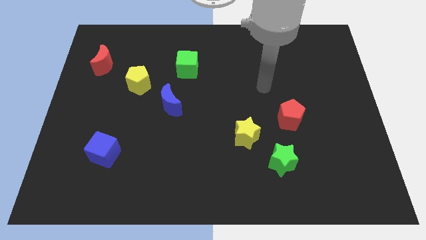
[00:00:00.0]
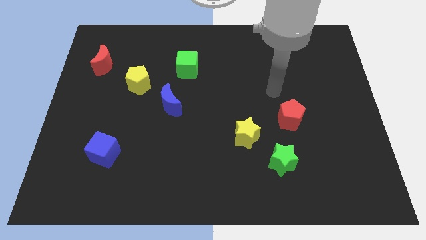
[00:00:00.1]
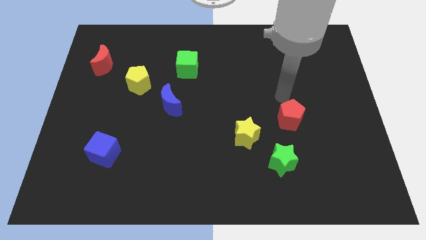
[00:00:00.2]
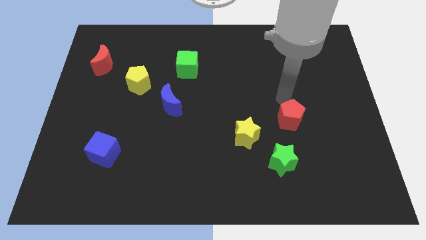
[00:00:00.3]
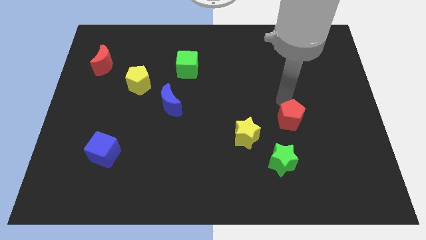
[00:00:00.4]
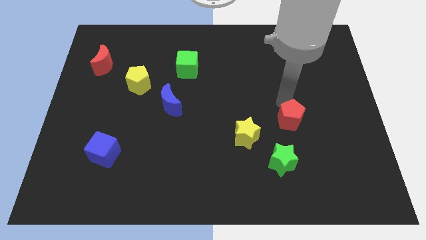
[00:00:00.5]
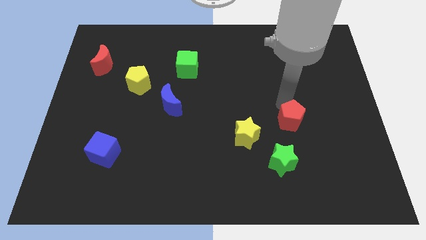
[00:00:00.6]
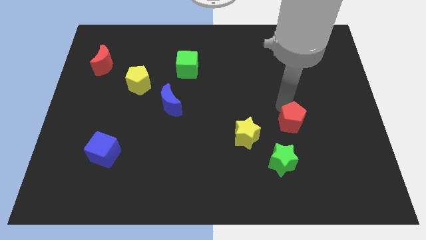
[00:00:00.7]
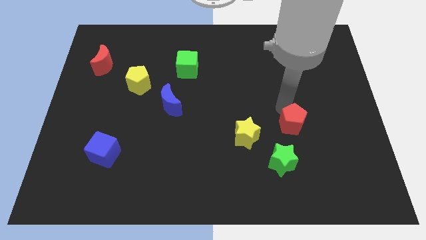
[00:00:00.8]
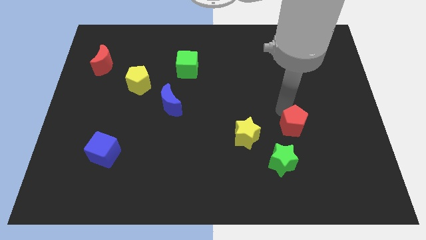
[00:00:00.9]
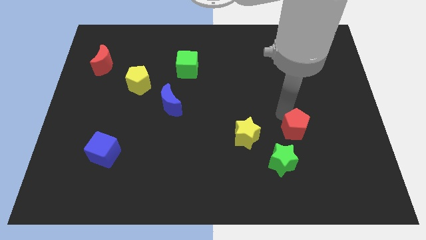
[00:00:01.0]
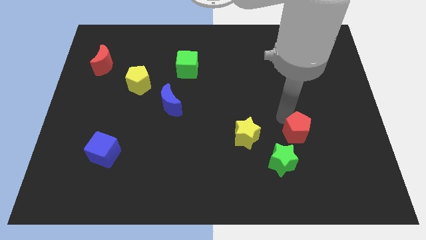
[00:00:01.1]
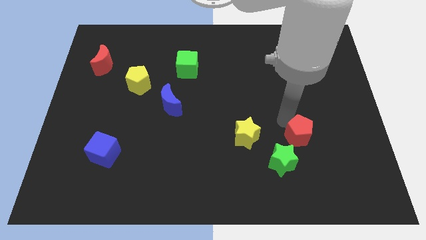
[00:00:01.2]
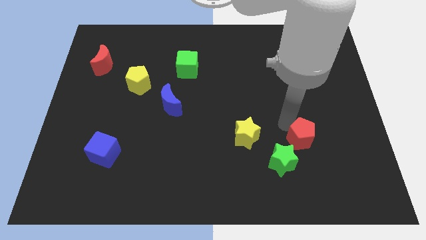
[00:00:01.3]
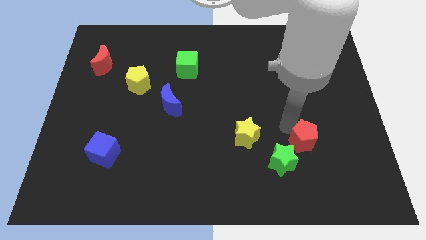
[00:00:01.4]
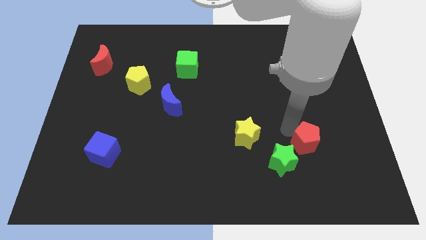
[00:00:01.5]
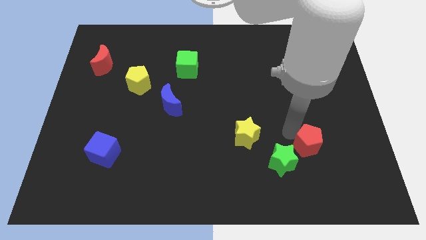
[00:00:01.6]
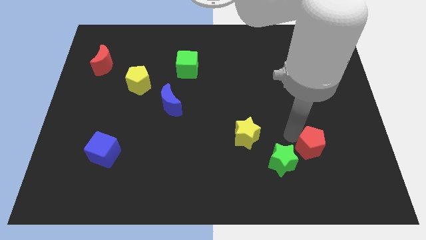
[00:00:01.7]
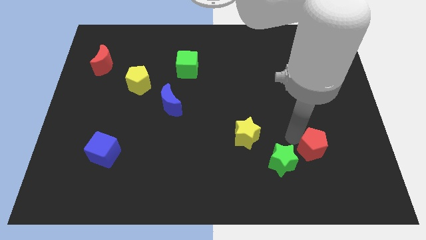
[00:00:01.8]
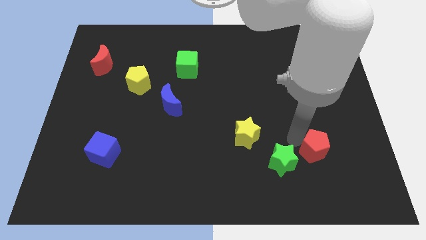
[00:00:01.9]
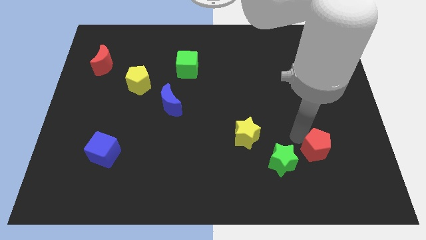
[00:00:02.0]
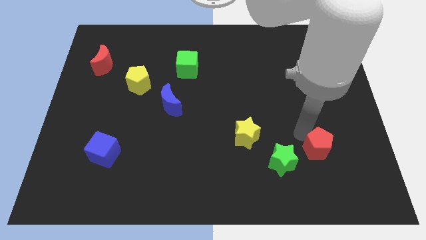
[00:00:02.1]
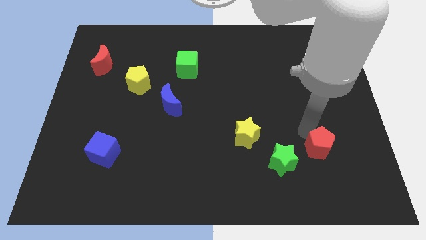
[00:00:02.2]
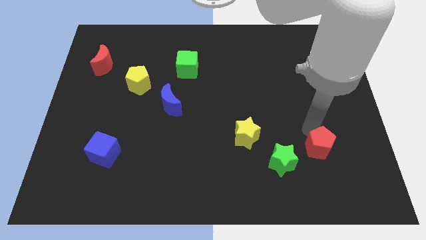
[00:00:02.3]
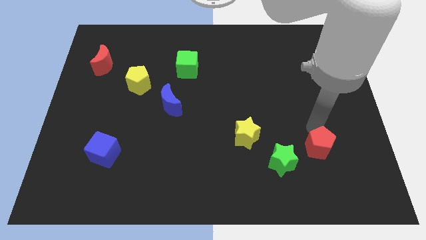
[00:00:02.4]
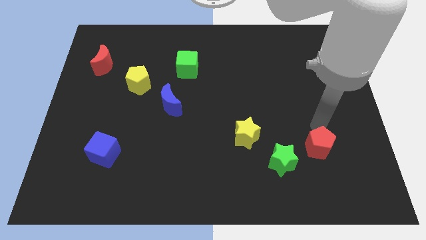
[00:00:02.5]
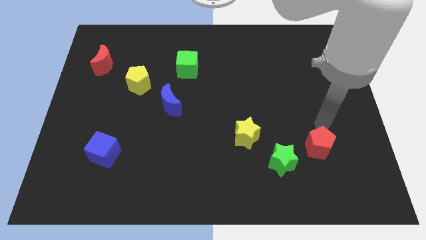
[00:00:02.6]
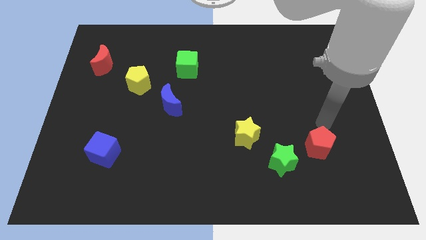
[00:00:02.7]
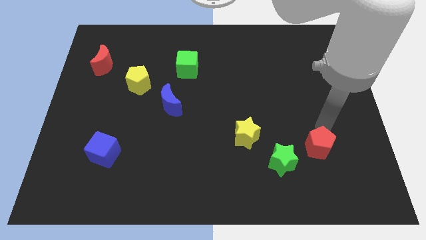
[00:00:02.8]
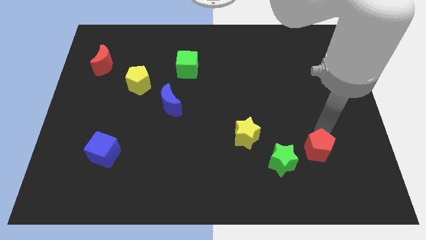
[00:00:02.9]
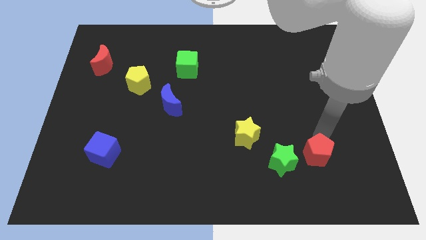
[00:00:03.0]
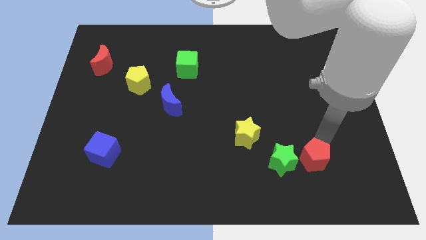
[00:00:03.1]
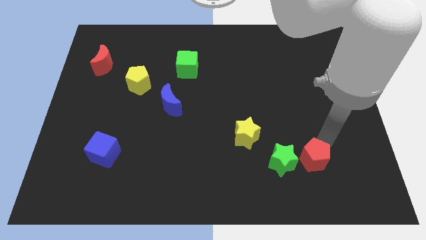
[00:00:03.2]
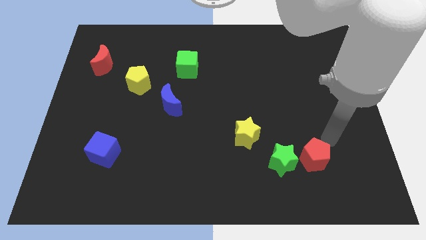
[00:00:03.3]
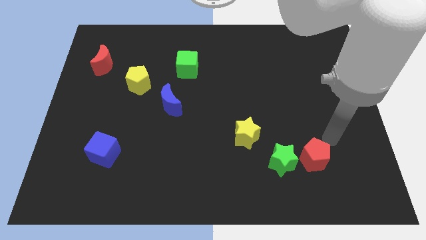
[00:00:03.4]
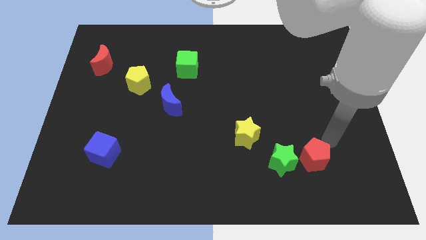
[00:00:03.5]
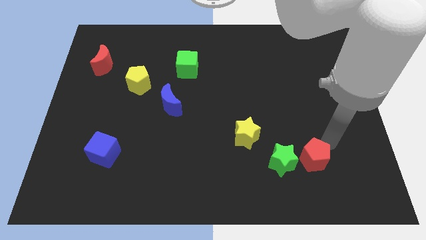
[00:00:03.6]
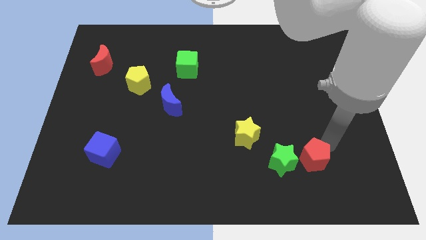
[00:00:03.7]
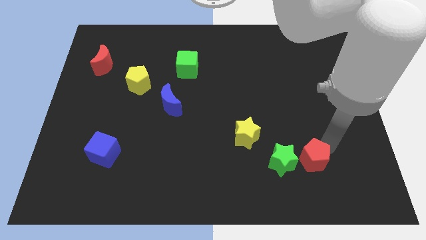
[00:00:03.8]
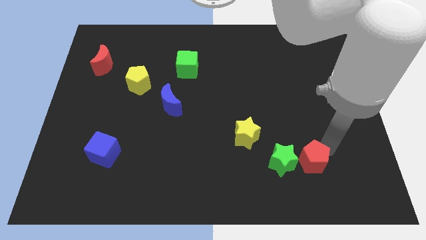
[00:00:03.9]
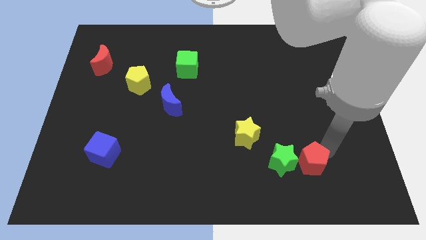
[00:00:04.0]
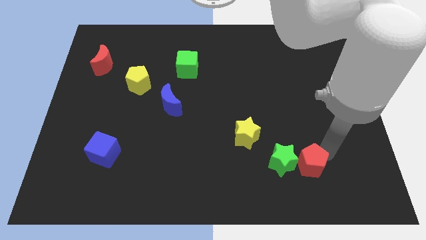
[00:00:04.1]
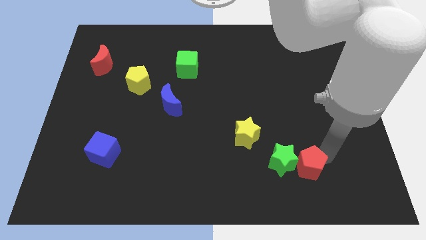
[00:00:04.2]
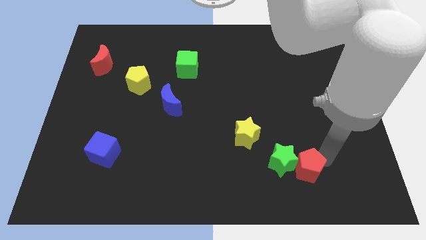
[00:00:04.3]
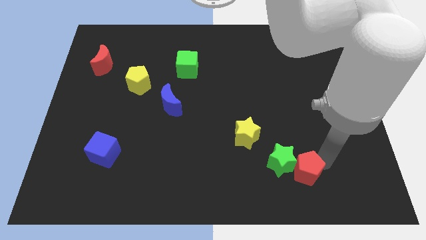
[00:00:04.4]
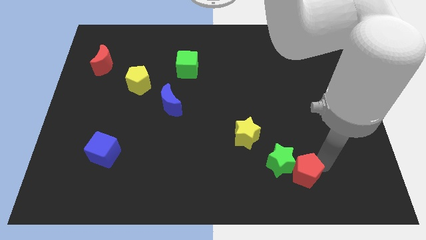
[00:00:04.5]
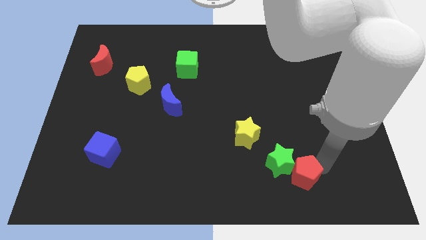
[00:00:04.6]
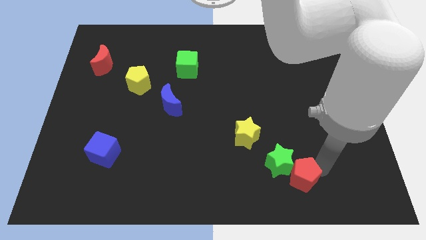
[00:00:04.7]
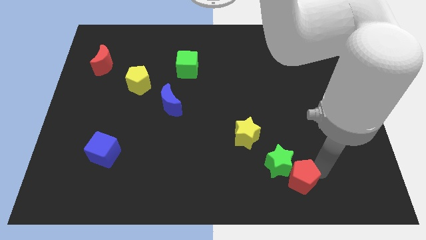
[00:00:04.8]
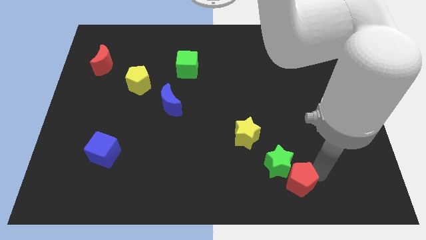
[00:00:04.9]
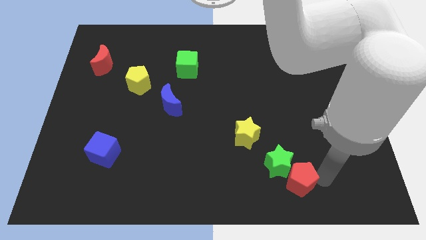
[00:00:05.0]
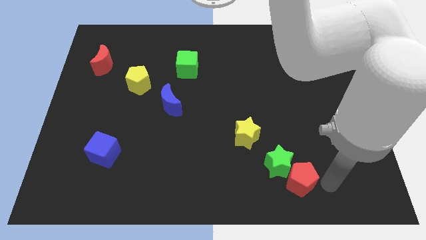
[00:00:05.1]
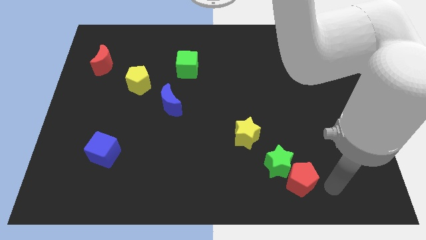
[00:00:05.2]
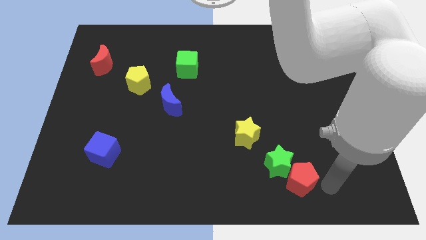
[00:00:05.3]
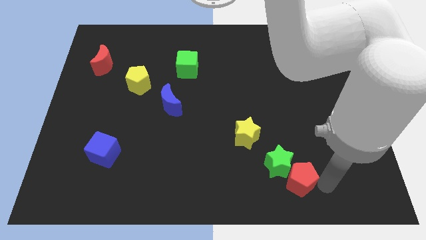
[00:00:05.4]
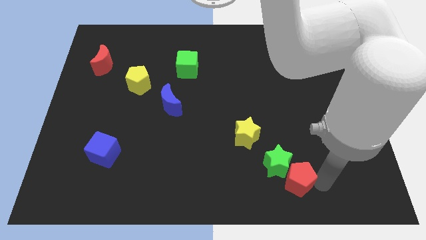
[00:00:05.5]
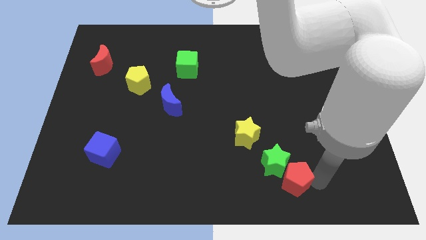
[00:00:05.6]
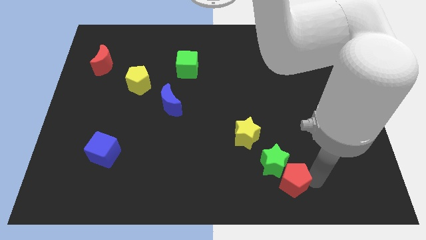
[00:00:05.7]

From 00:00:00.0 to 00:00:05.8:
move the red pentagon slightly downwards and then to the left

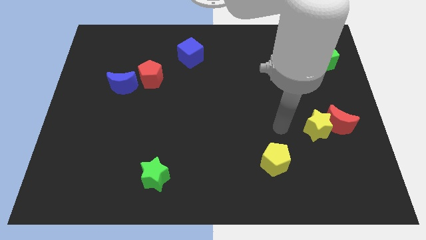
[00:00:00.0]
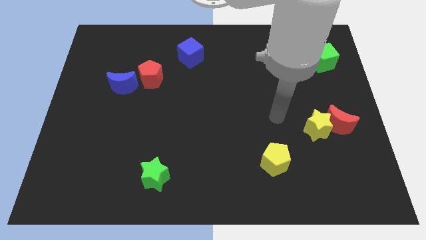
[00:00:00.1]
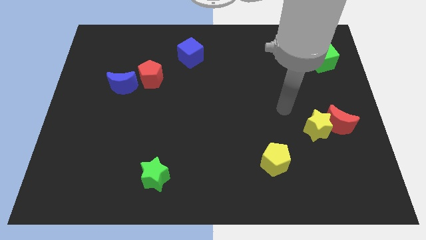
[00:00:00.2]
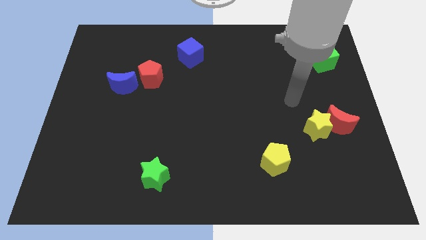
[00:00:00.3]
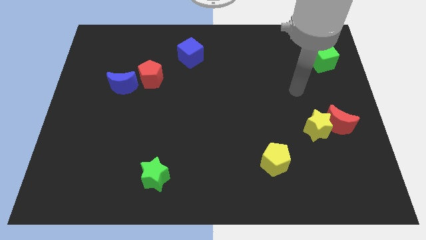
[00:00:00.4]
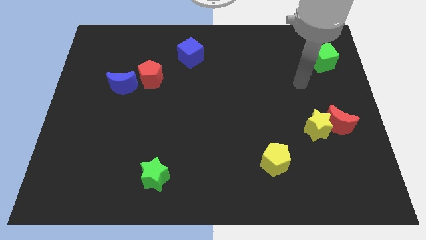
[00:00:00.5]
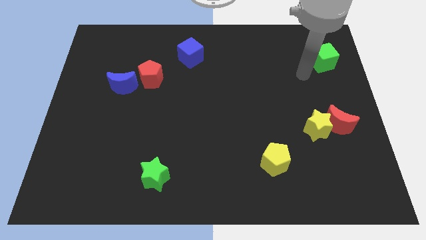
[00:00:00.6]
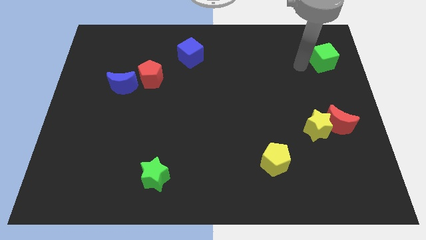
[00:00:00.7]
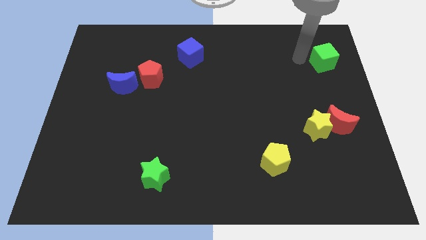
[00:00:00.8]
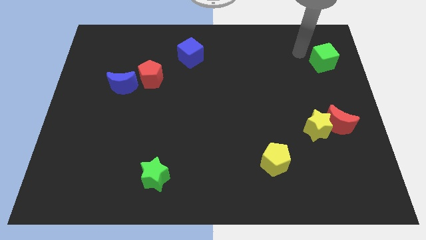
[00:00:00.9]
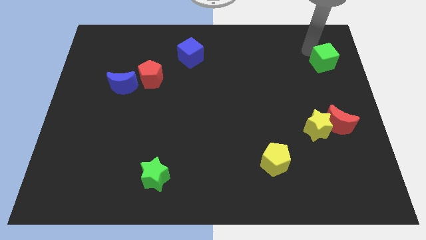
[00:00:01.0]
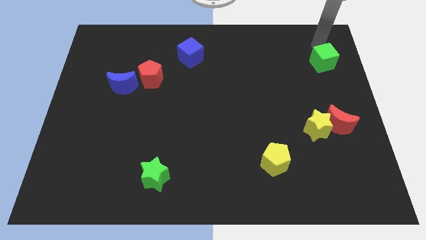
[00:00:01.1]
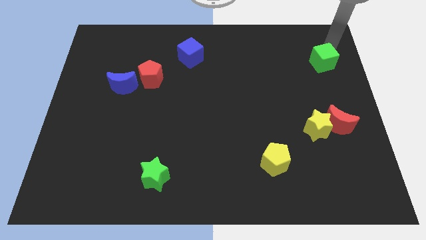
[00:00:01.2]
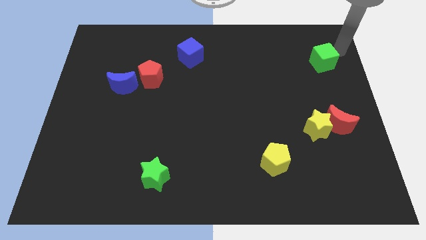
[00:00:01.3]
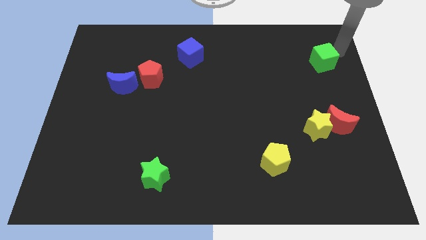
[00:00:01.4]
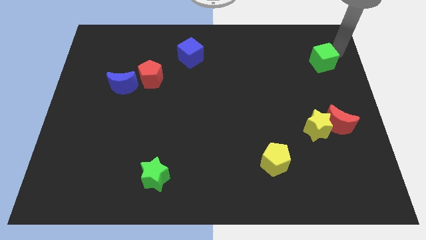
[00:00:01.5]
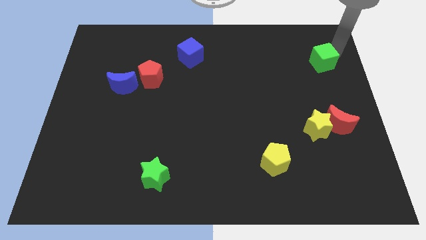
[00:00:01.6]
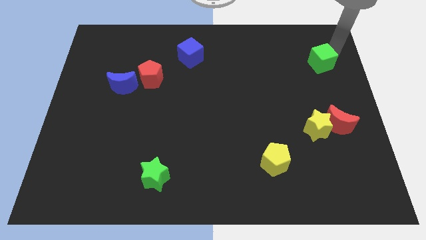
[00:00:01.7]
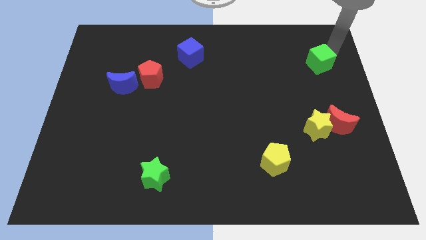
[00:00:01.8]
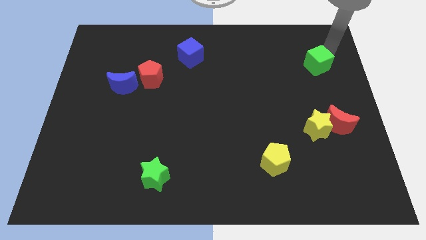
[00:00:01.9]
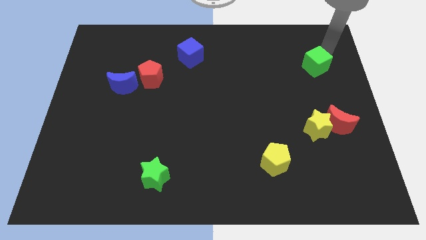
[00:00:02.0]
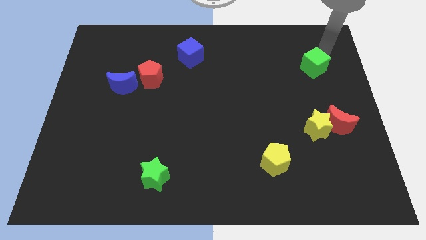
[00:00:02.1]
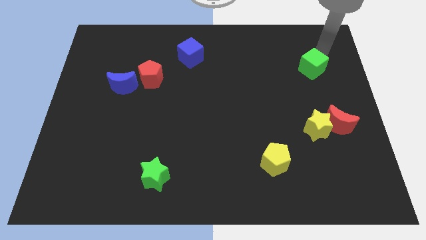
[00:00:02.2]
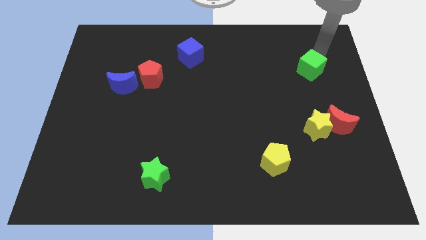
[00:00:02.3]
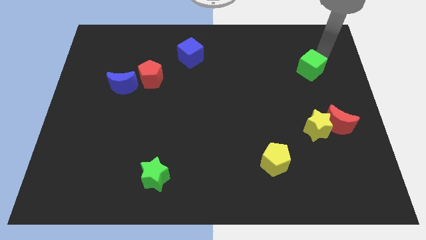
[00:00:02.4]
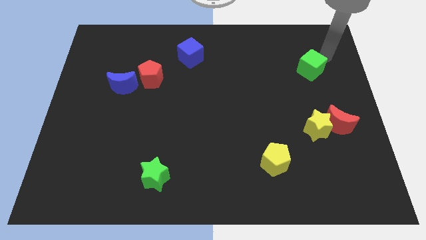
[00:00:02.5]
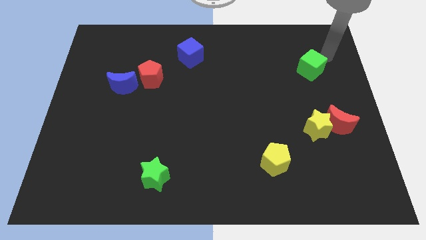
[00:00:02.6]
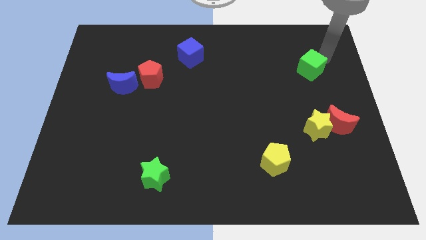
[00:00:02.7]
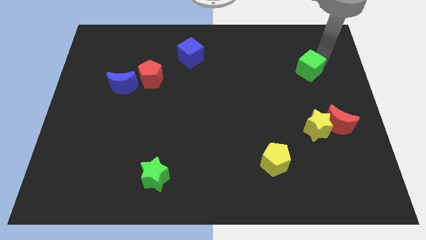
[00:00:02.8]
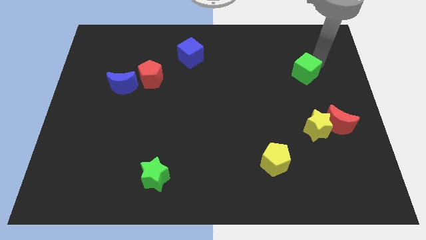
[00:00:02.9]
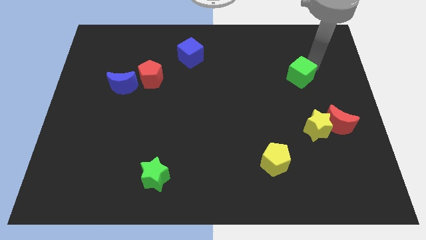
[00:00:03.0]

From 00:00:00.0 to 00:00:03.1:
move the green cube somewhat down and to the left
